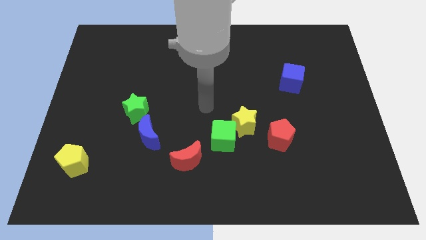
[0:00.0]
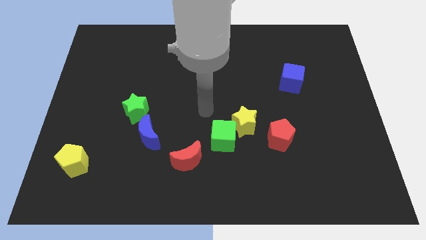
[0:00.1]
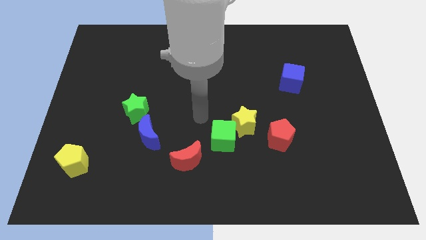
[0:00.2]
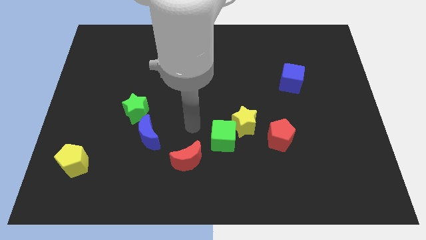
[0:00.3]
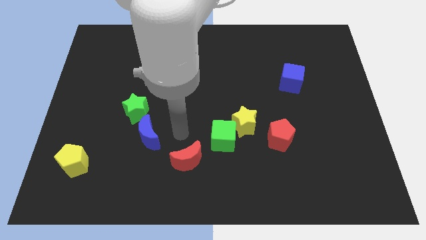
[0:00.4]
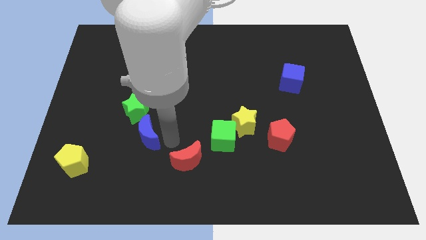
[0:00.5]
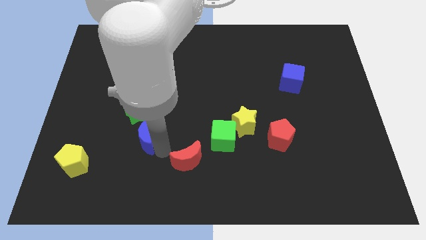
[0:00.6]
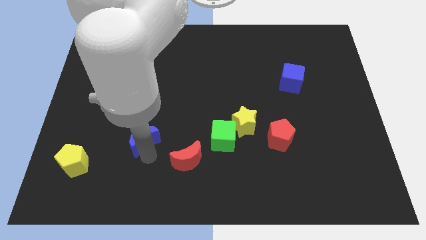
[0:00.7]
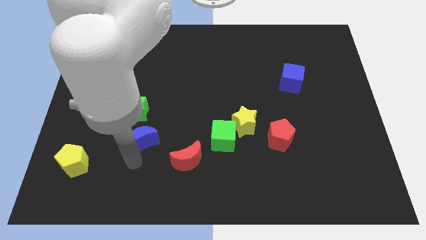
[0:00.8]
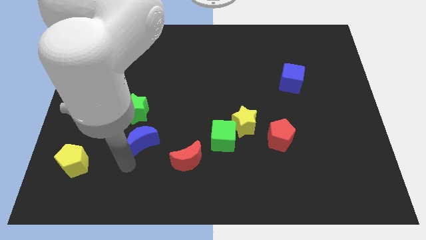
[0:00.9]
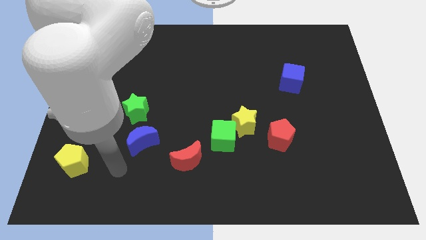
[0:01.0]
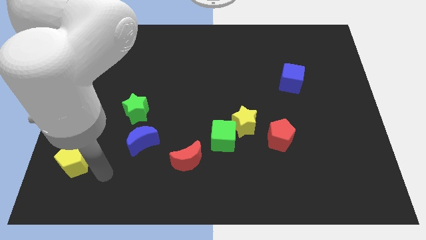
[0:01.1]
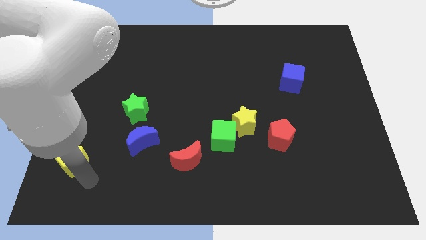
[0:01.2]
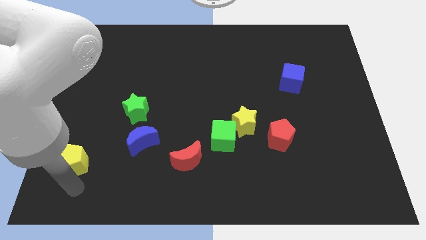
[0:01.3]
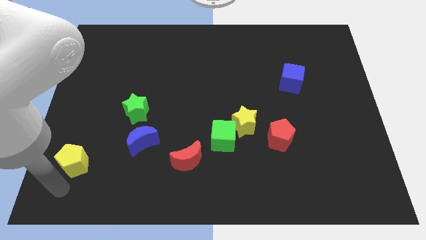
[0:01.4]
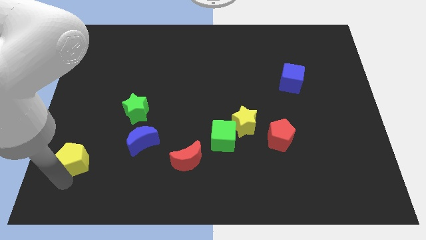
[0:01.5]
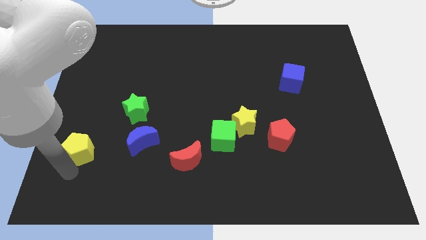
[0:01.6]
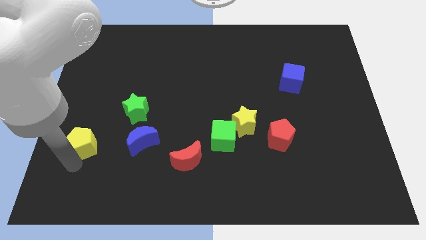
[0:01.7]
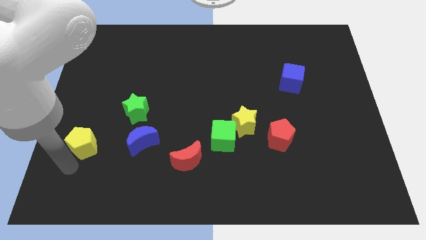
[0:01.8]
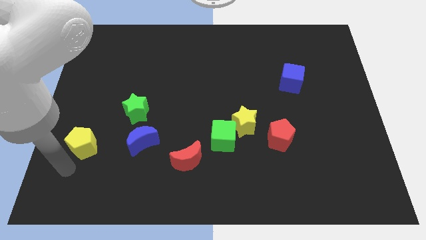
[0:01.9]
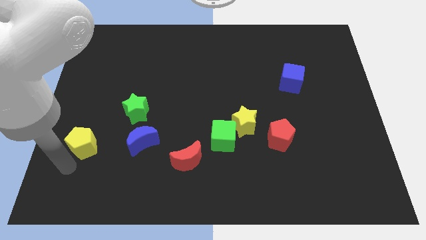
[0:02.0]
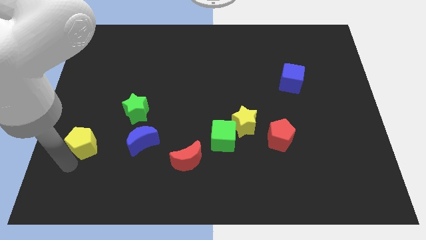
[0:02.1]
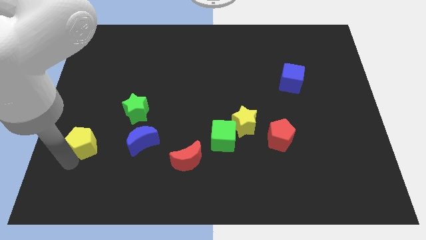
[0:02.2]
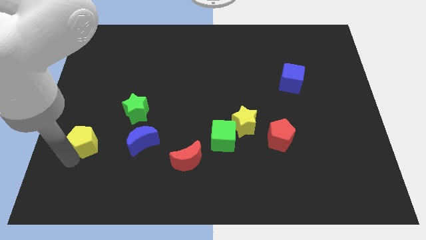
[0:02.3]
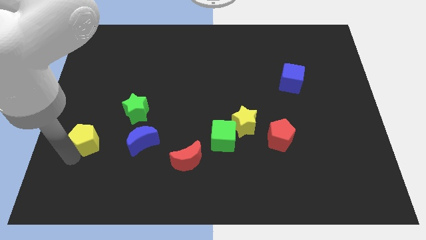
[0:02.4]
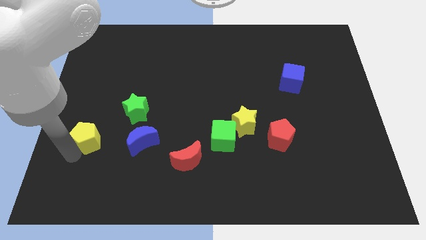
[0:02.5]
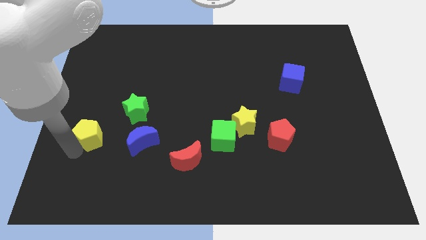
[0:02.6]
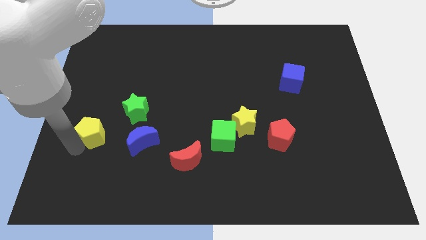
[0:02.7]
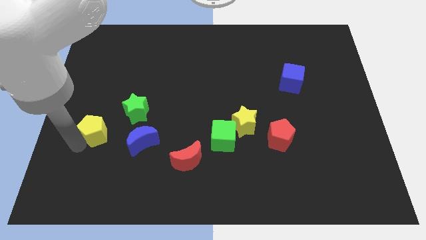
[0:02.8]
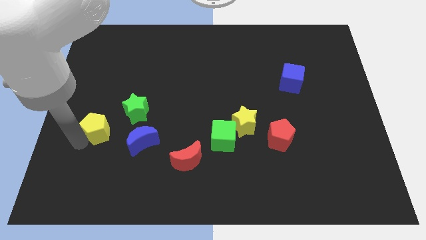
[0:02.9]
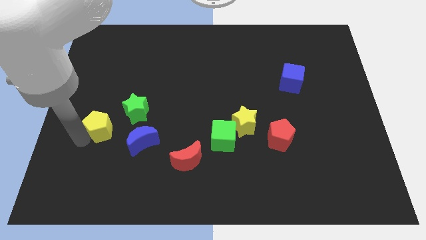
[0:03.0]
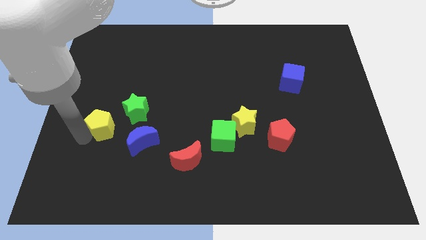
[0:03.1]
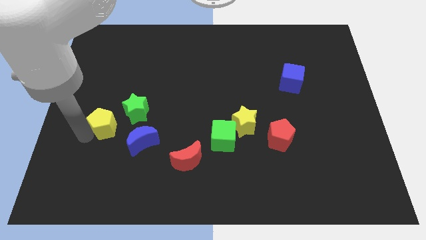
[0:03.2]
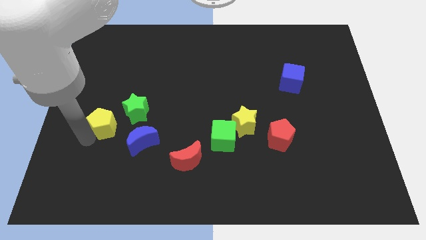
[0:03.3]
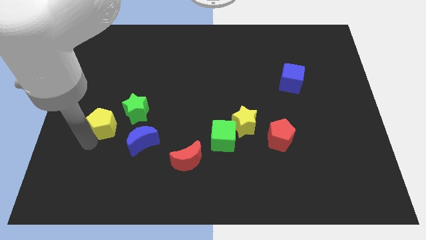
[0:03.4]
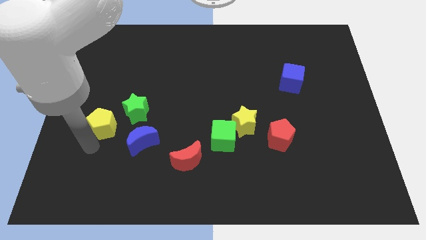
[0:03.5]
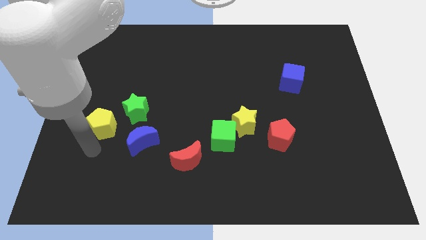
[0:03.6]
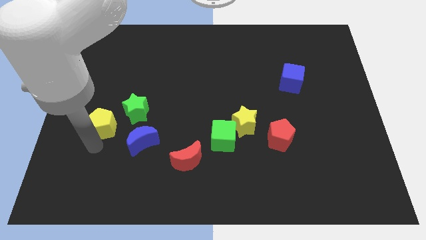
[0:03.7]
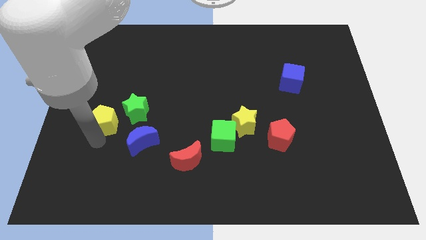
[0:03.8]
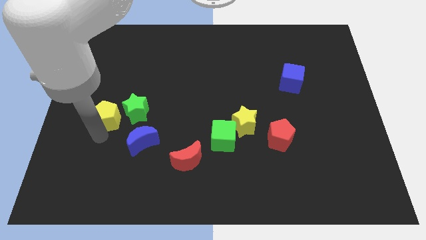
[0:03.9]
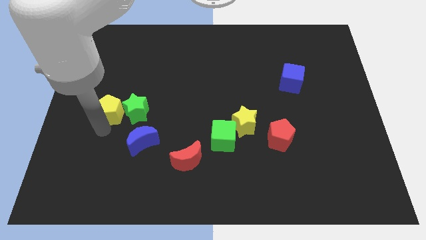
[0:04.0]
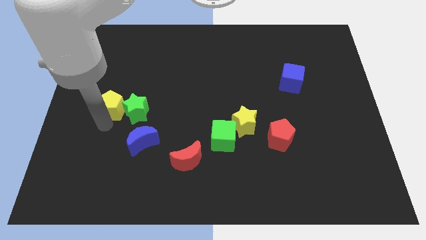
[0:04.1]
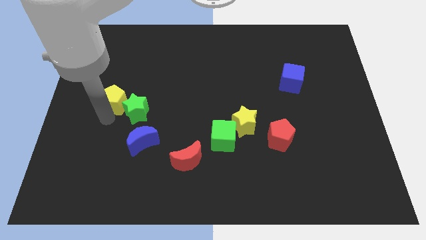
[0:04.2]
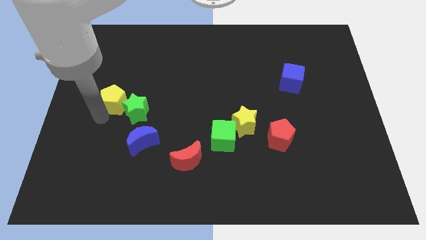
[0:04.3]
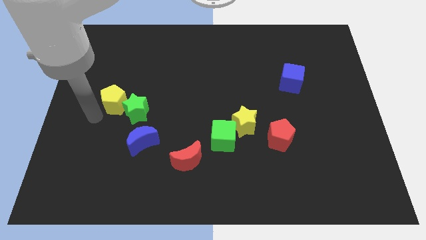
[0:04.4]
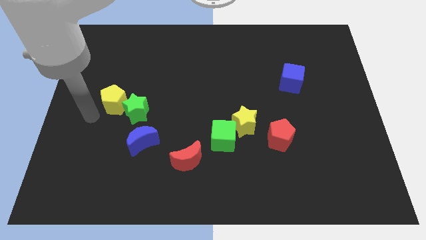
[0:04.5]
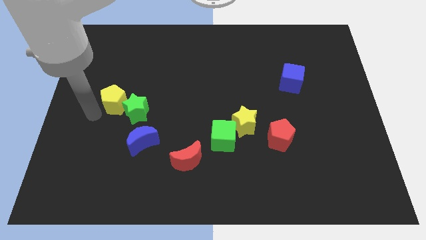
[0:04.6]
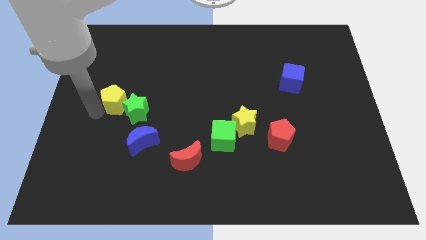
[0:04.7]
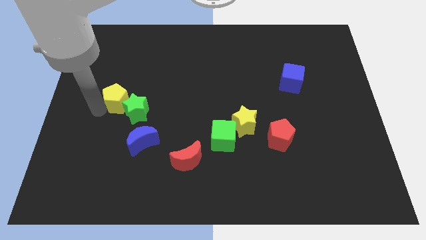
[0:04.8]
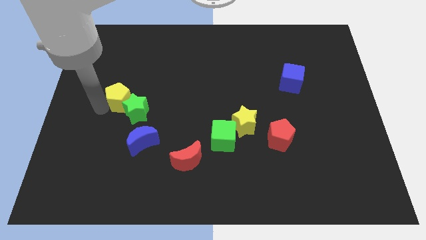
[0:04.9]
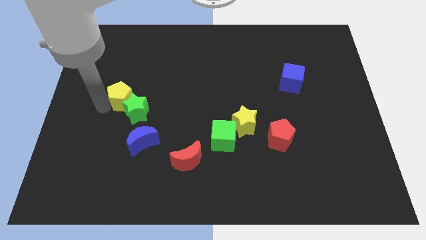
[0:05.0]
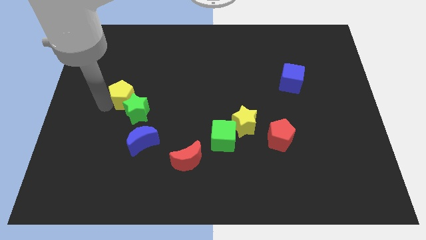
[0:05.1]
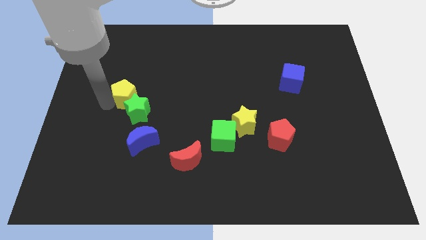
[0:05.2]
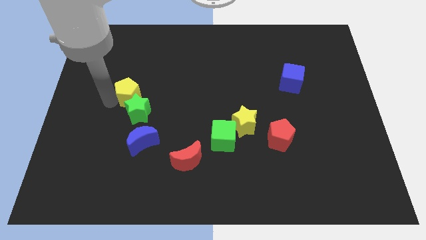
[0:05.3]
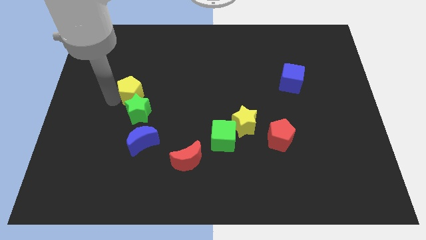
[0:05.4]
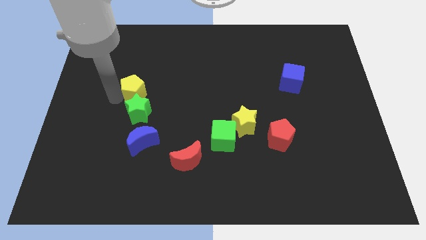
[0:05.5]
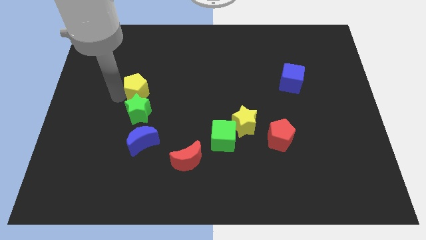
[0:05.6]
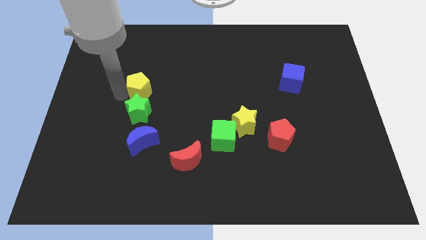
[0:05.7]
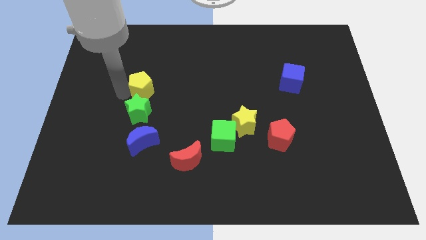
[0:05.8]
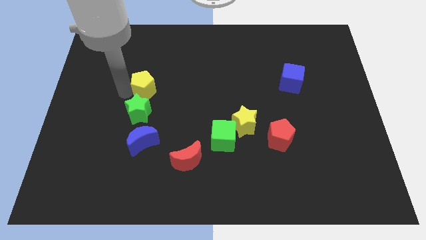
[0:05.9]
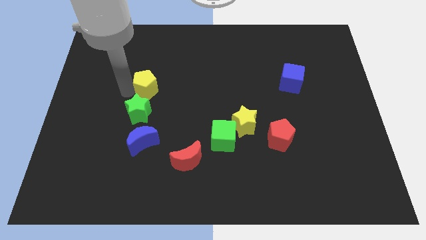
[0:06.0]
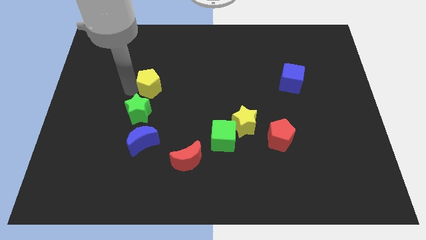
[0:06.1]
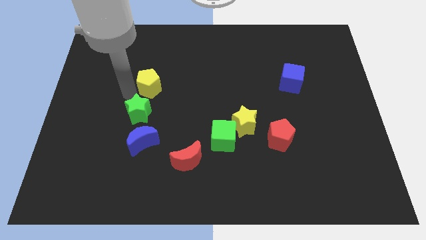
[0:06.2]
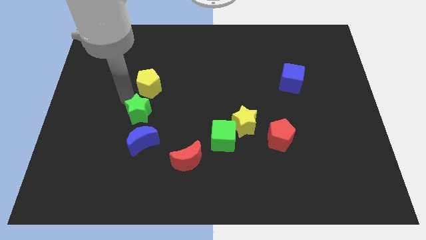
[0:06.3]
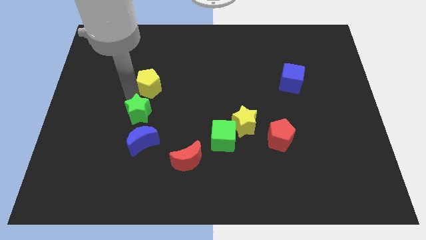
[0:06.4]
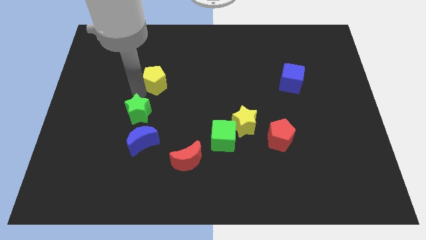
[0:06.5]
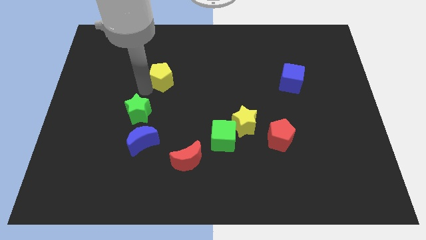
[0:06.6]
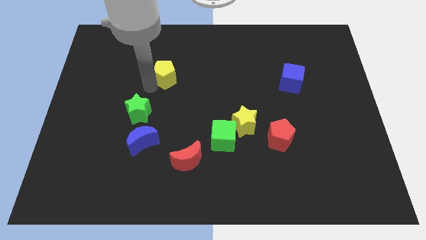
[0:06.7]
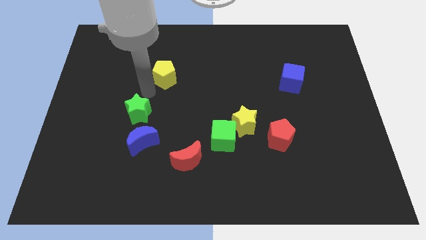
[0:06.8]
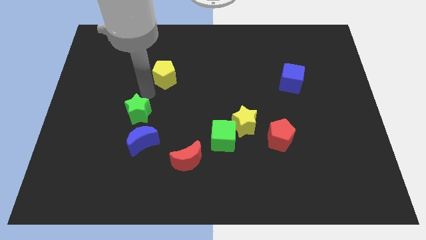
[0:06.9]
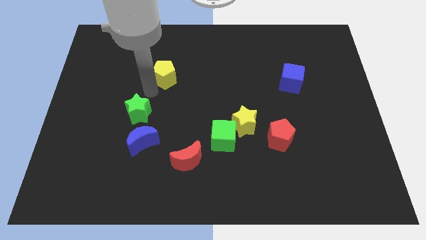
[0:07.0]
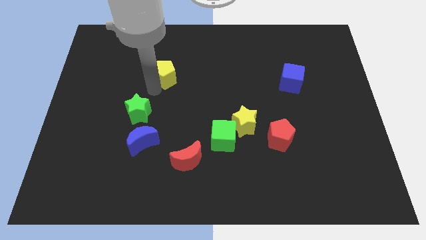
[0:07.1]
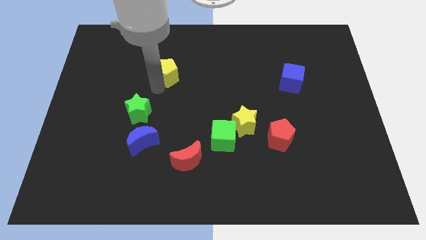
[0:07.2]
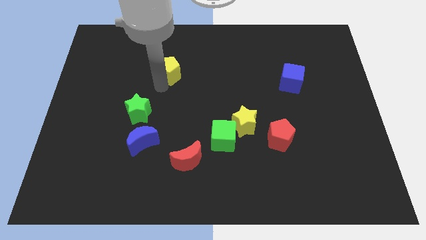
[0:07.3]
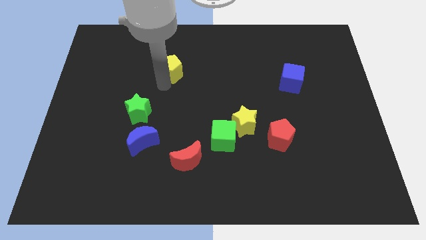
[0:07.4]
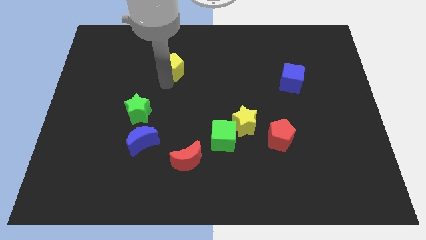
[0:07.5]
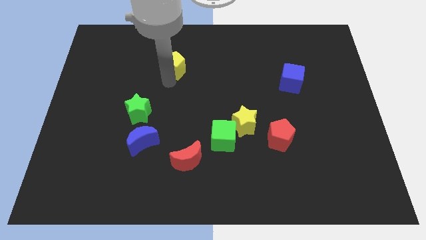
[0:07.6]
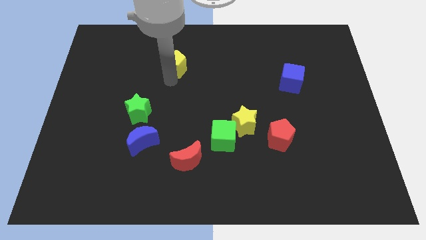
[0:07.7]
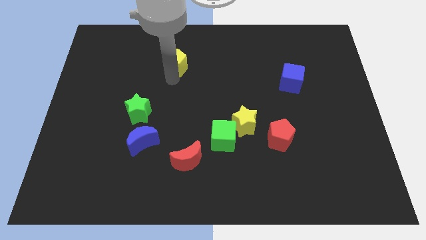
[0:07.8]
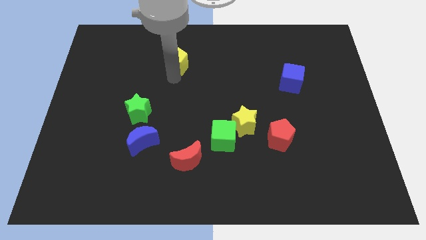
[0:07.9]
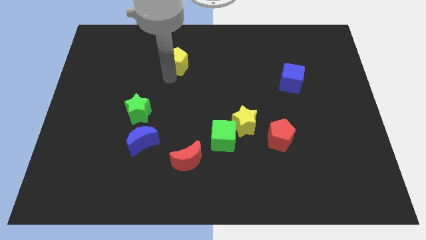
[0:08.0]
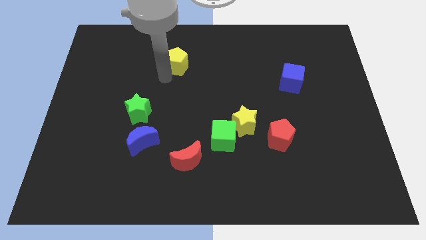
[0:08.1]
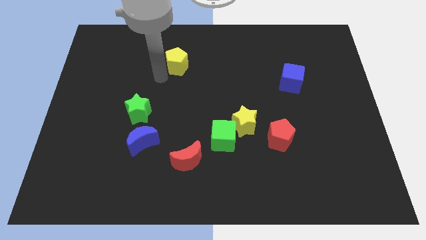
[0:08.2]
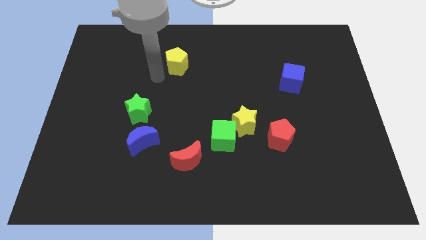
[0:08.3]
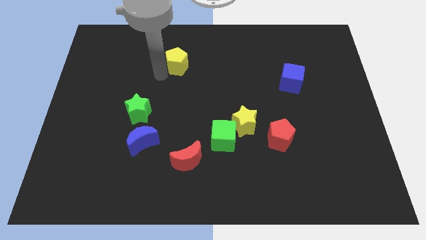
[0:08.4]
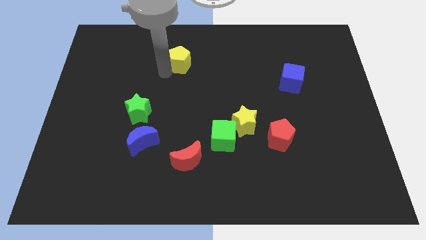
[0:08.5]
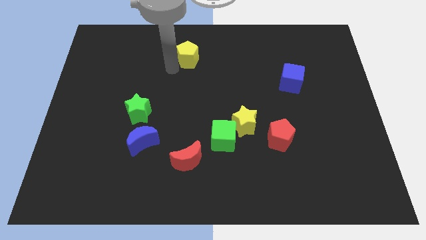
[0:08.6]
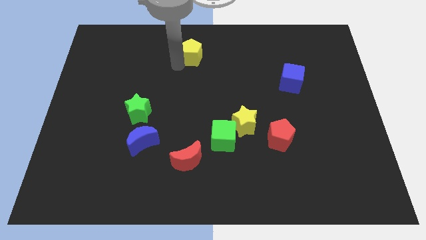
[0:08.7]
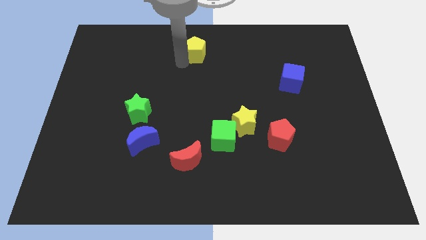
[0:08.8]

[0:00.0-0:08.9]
put the yellow pentagon to the top side
